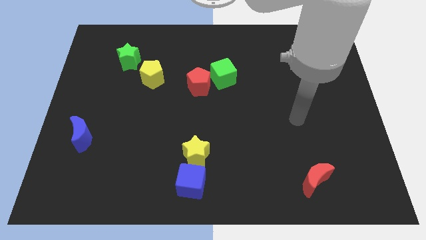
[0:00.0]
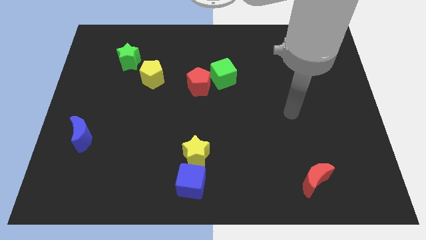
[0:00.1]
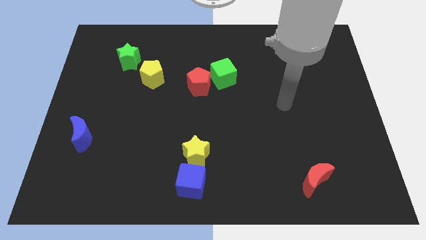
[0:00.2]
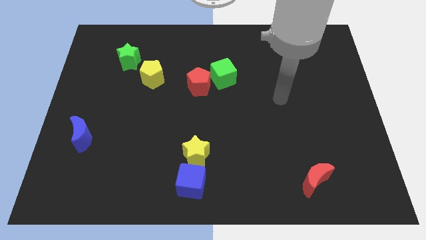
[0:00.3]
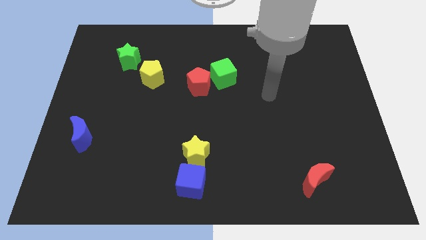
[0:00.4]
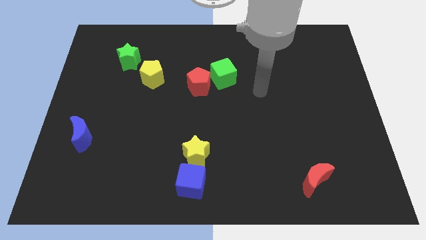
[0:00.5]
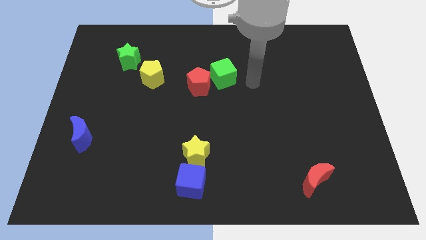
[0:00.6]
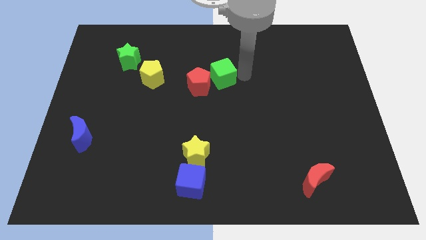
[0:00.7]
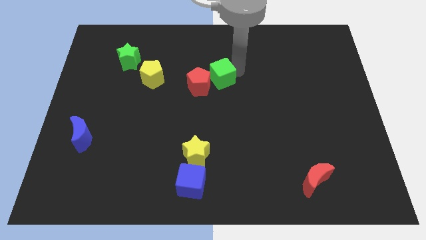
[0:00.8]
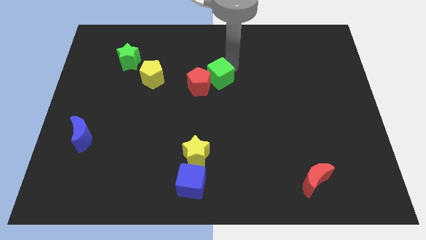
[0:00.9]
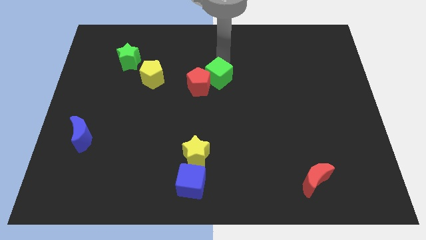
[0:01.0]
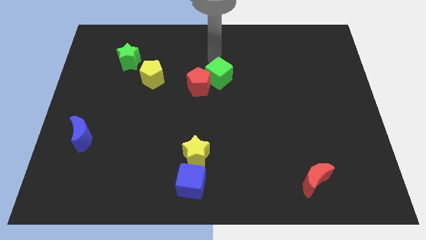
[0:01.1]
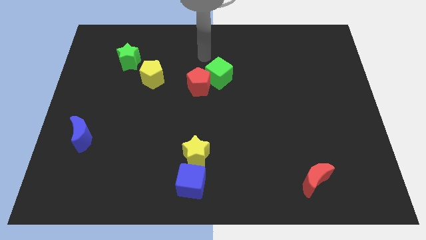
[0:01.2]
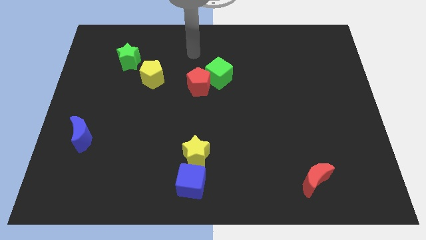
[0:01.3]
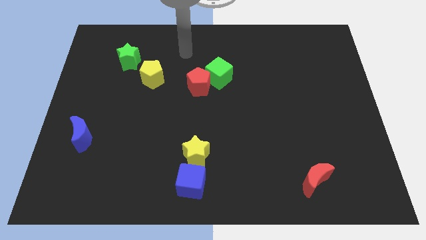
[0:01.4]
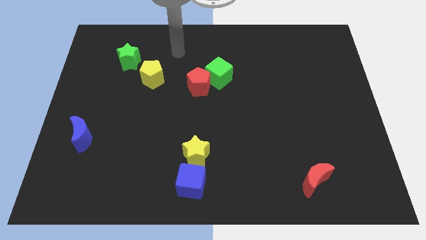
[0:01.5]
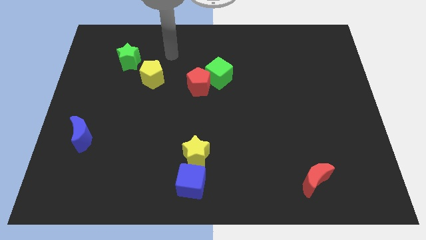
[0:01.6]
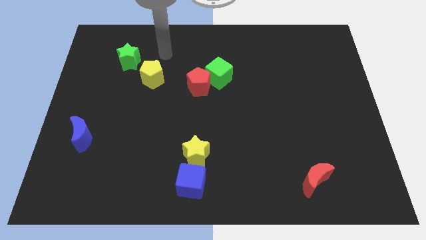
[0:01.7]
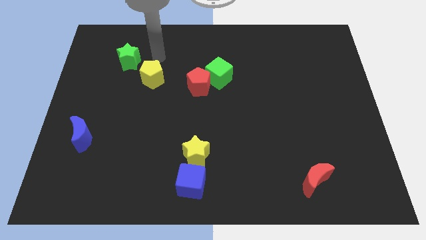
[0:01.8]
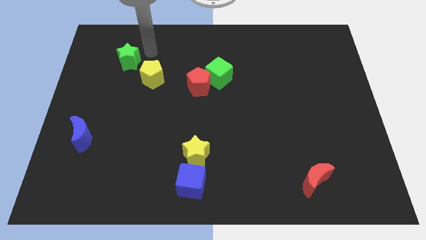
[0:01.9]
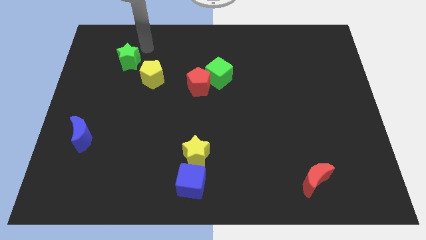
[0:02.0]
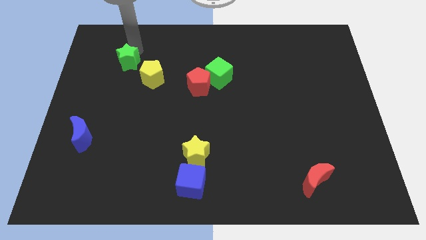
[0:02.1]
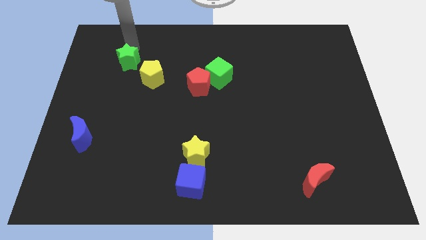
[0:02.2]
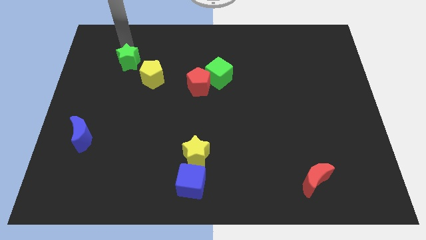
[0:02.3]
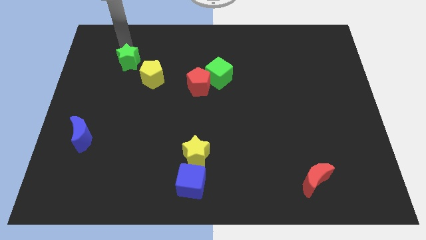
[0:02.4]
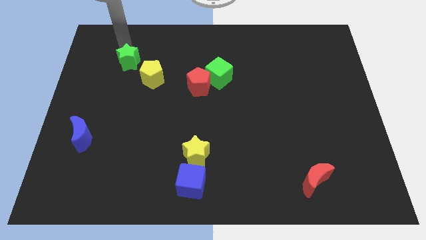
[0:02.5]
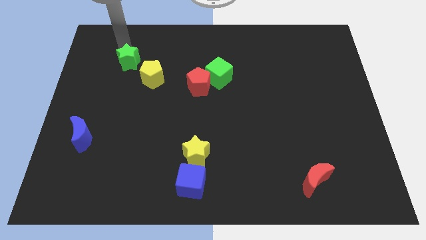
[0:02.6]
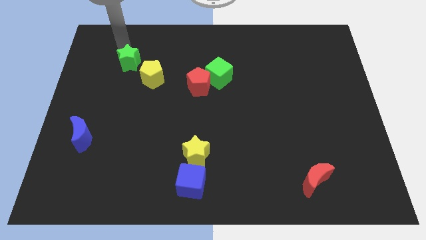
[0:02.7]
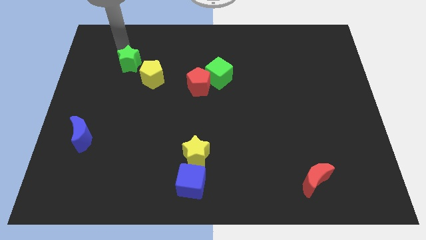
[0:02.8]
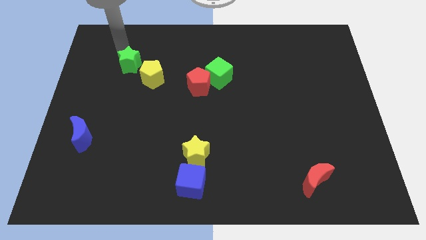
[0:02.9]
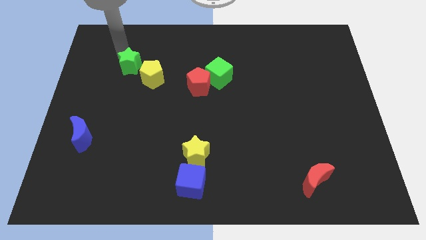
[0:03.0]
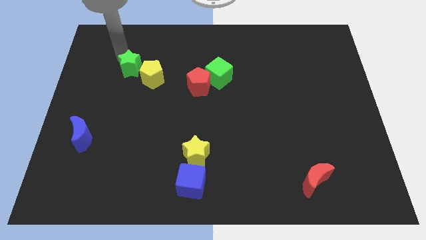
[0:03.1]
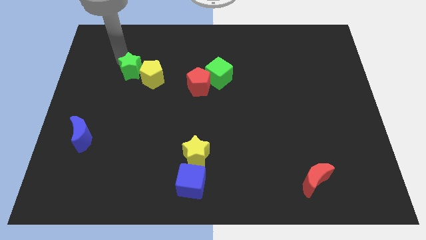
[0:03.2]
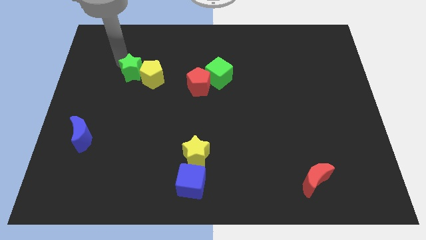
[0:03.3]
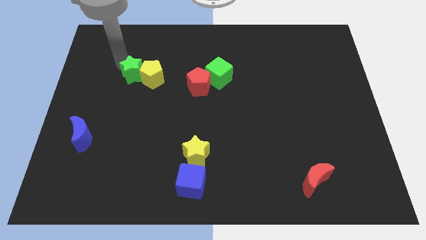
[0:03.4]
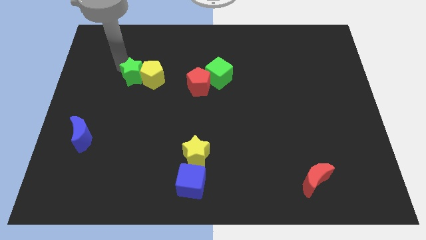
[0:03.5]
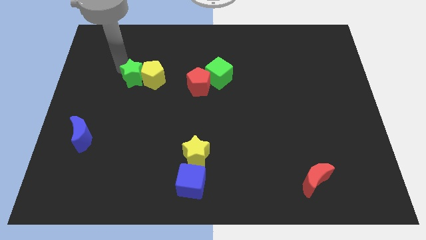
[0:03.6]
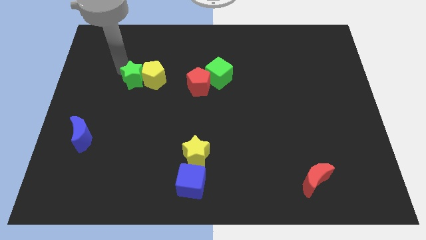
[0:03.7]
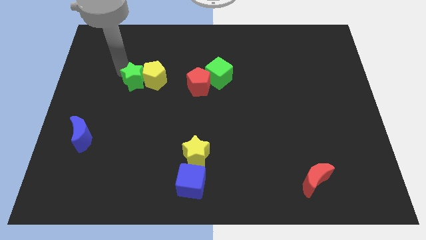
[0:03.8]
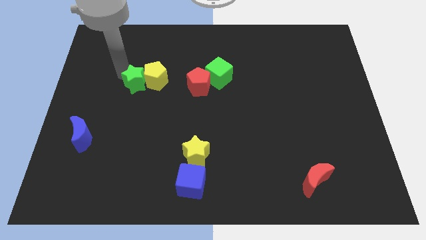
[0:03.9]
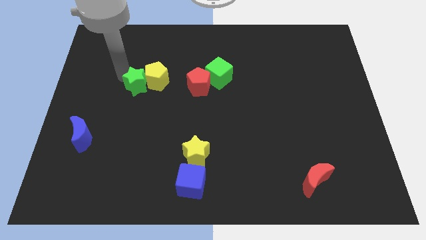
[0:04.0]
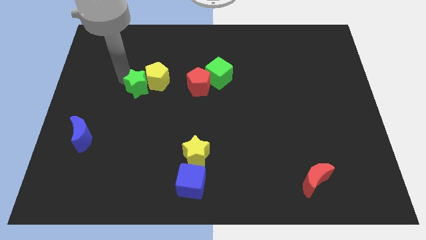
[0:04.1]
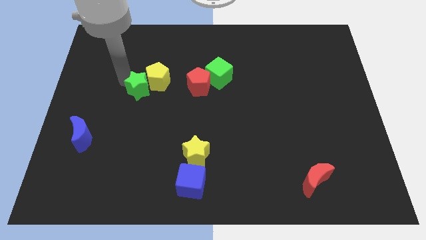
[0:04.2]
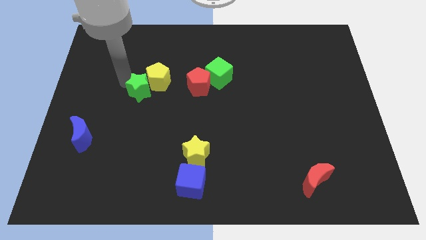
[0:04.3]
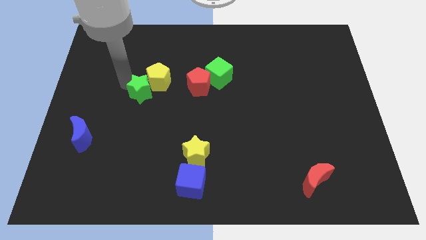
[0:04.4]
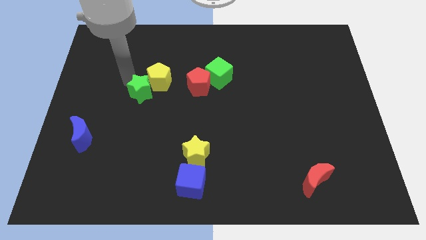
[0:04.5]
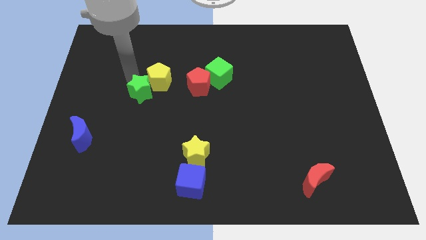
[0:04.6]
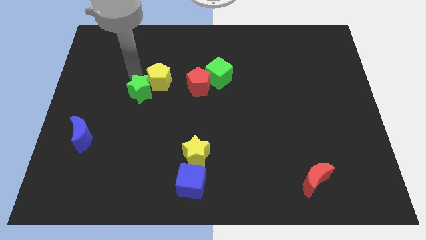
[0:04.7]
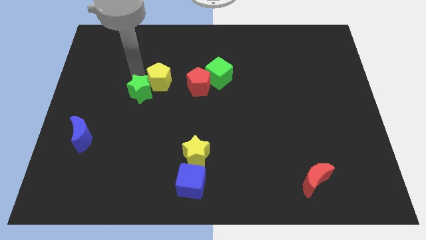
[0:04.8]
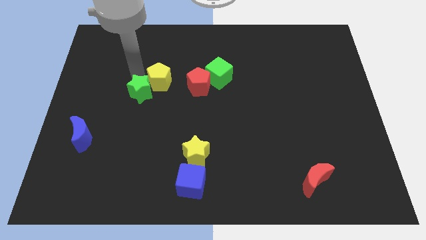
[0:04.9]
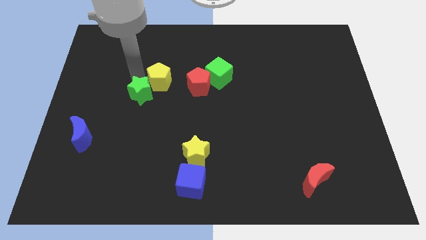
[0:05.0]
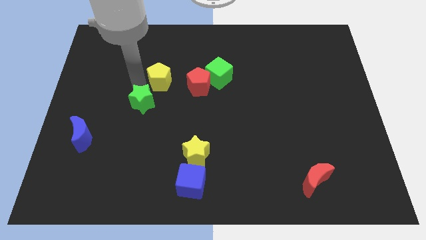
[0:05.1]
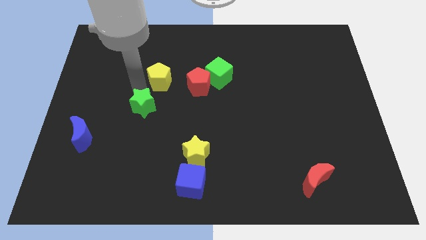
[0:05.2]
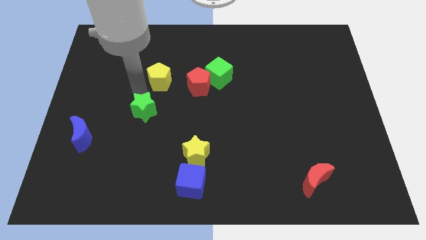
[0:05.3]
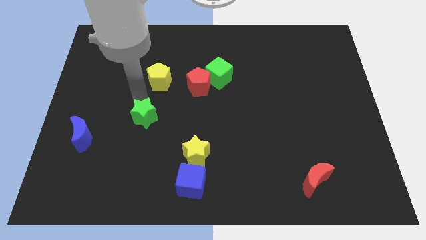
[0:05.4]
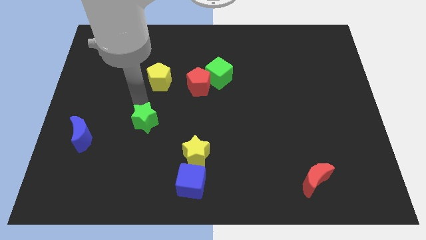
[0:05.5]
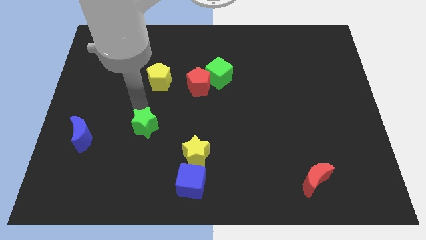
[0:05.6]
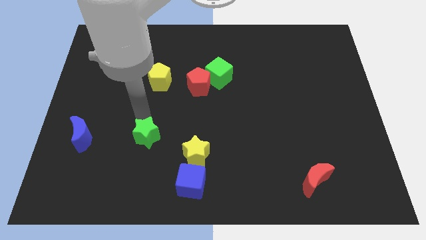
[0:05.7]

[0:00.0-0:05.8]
push the green star to the left side of the yellow star

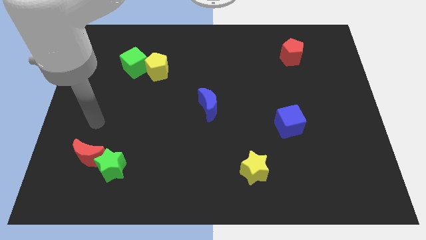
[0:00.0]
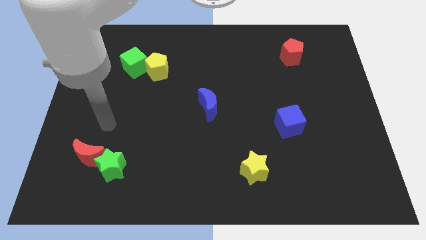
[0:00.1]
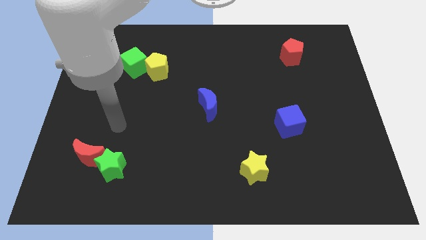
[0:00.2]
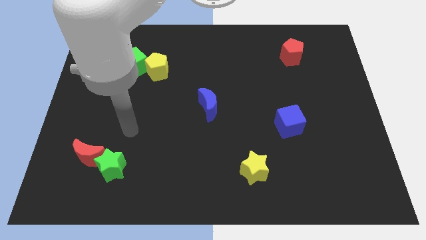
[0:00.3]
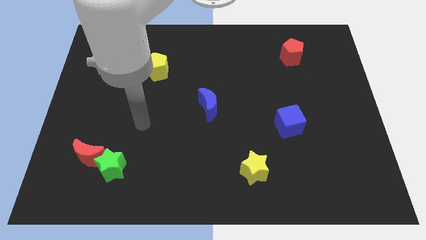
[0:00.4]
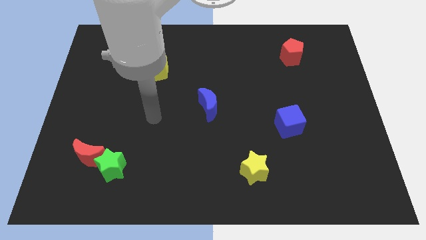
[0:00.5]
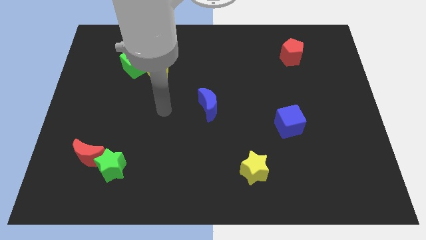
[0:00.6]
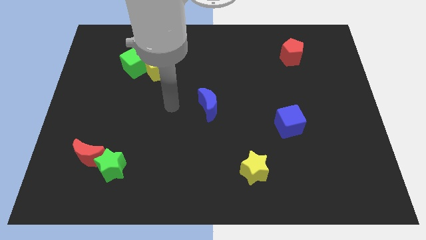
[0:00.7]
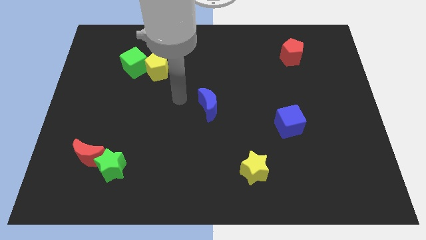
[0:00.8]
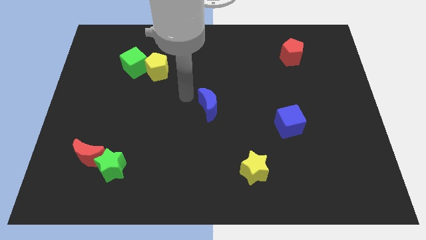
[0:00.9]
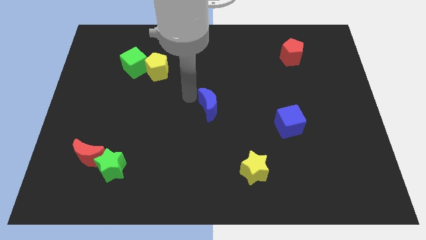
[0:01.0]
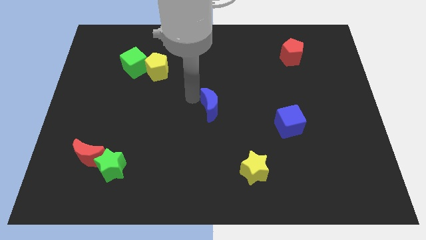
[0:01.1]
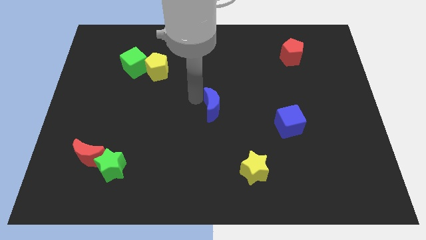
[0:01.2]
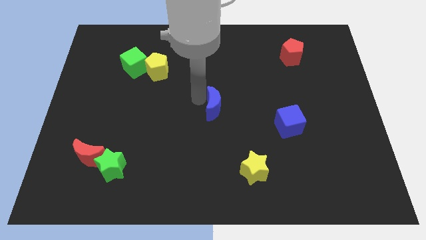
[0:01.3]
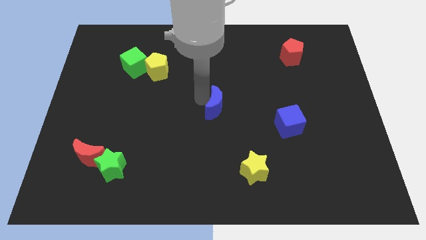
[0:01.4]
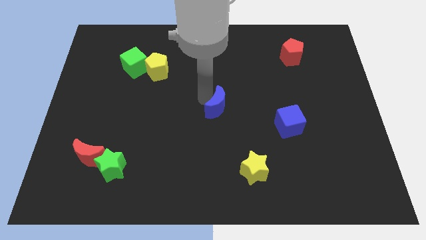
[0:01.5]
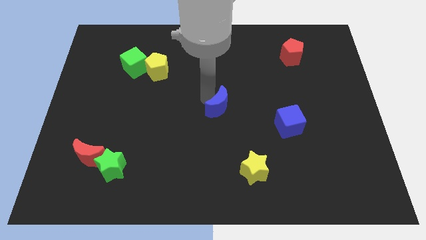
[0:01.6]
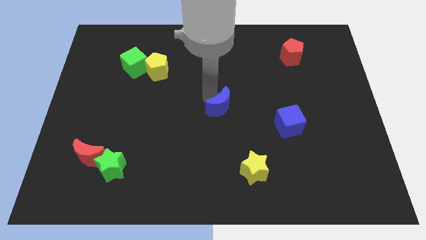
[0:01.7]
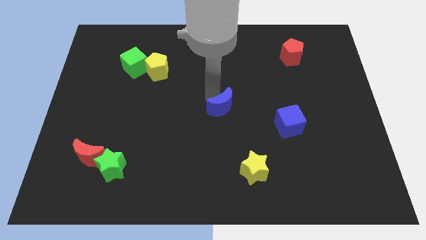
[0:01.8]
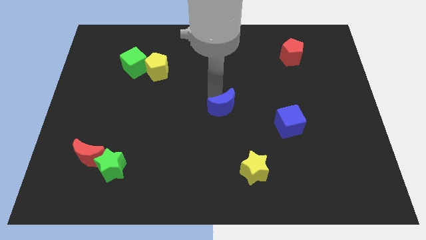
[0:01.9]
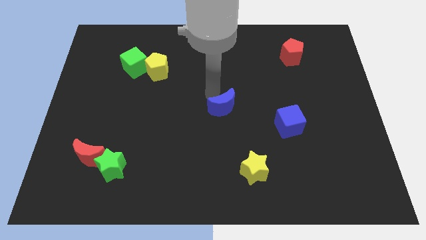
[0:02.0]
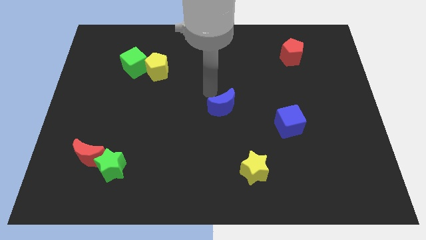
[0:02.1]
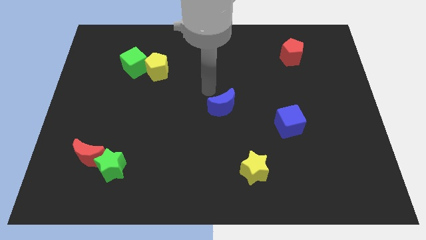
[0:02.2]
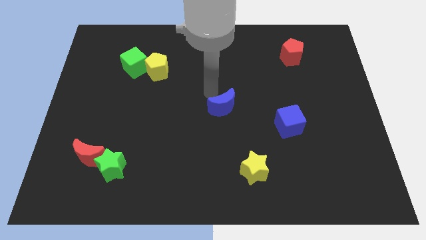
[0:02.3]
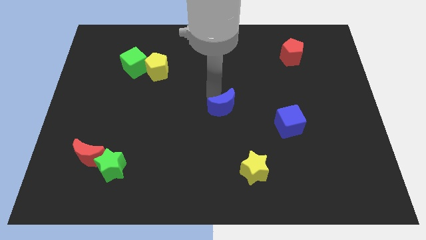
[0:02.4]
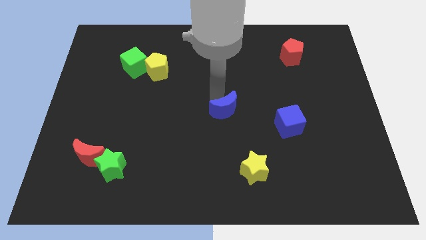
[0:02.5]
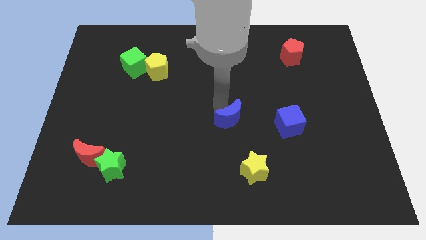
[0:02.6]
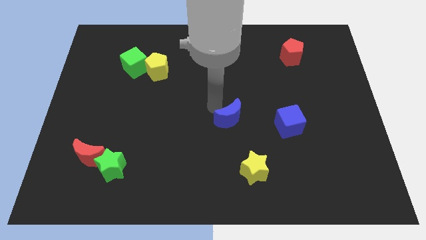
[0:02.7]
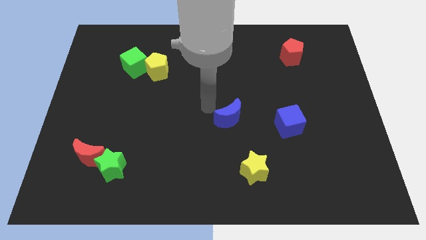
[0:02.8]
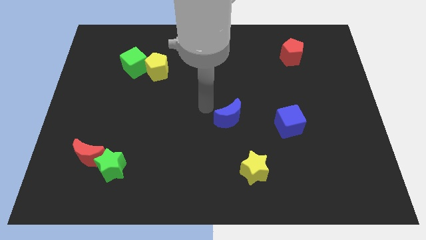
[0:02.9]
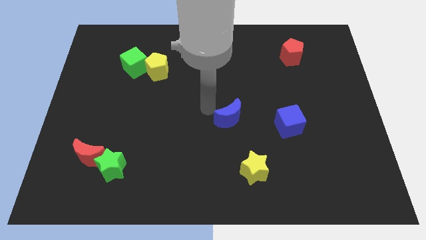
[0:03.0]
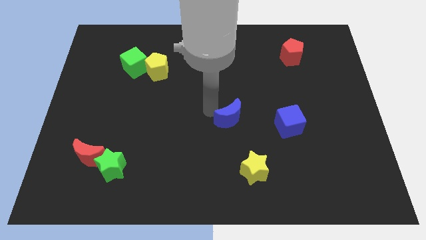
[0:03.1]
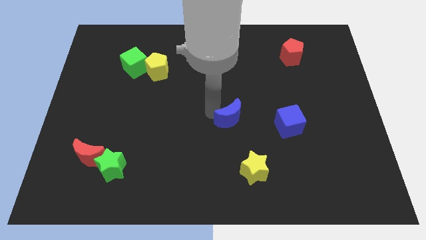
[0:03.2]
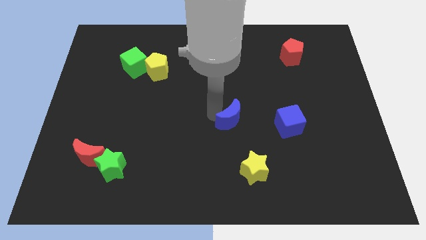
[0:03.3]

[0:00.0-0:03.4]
put the blue moon to the top of the yellow star
